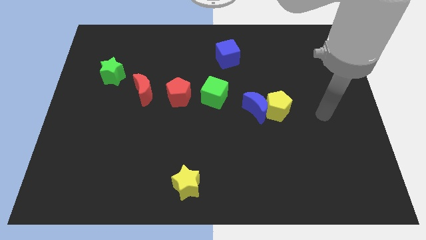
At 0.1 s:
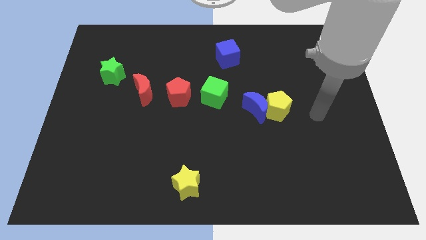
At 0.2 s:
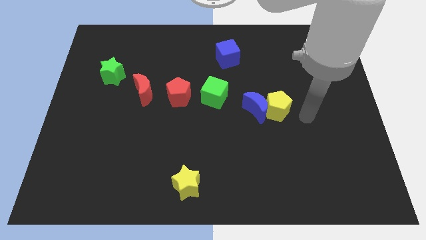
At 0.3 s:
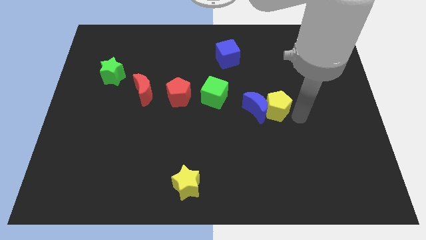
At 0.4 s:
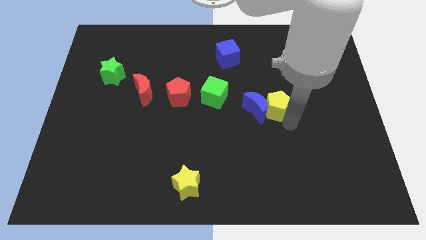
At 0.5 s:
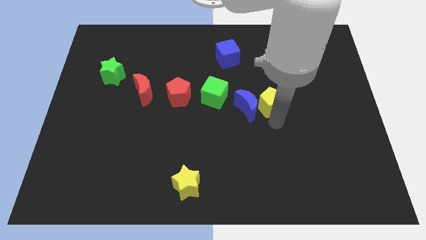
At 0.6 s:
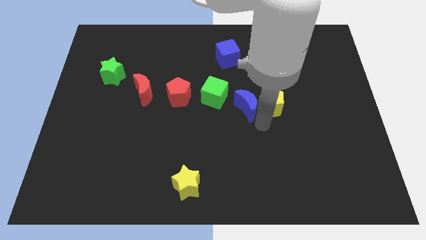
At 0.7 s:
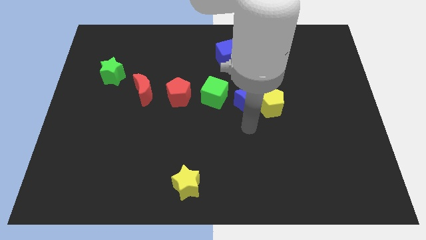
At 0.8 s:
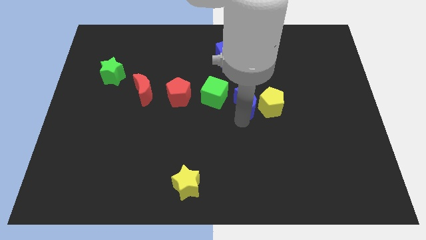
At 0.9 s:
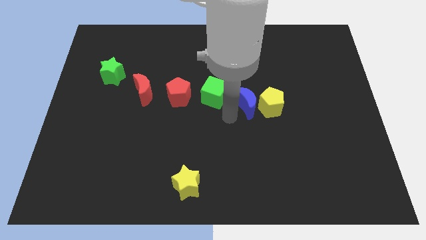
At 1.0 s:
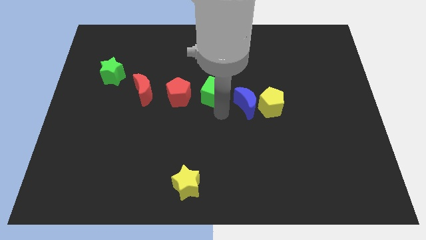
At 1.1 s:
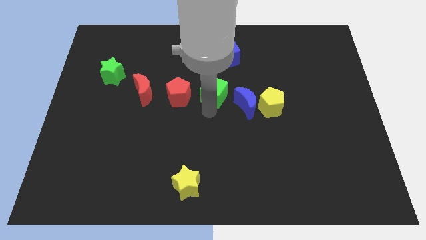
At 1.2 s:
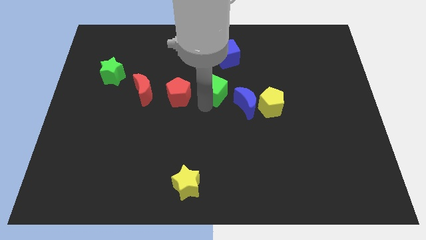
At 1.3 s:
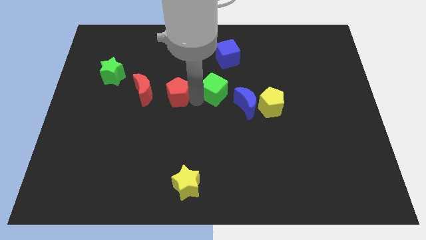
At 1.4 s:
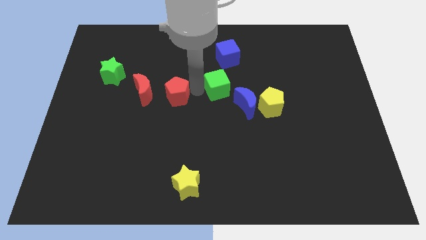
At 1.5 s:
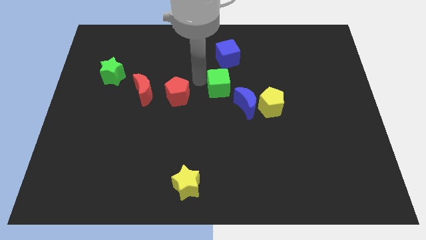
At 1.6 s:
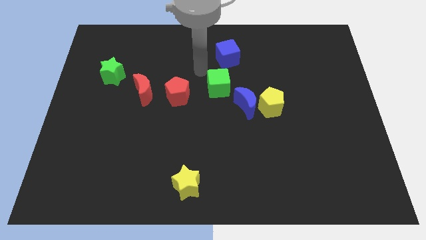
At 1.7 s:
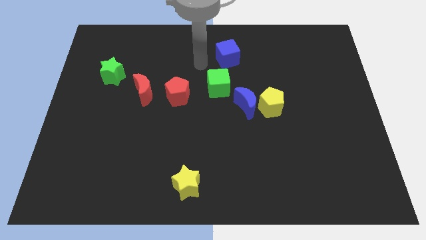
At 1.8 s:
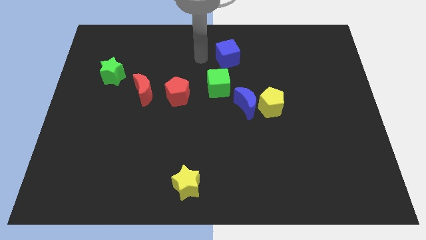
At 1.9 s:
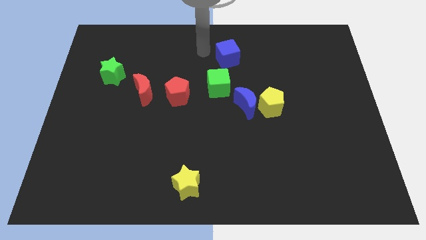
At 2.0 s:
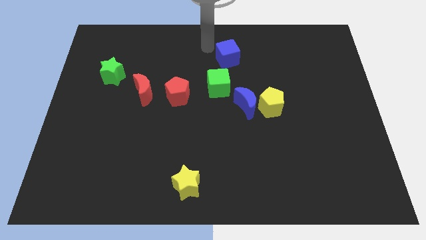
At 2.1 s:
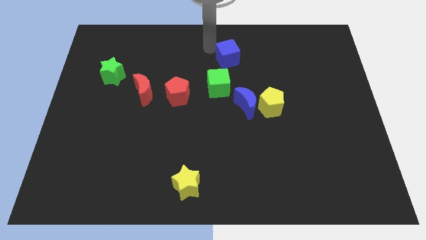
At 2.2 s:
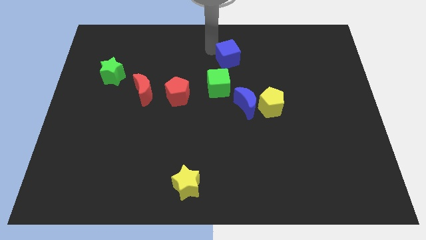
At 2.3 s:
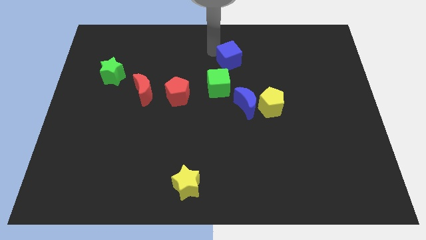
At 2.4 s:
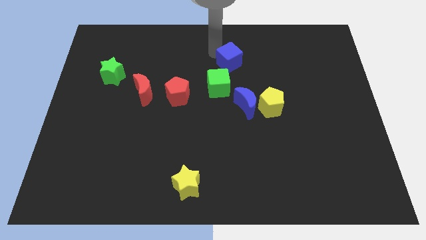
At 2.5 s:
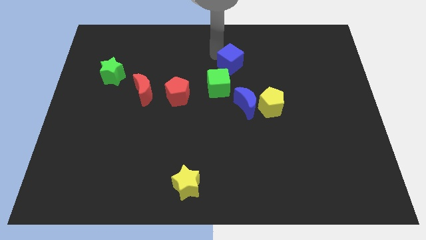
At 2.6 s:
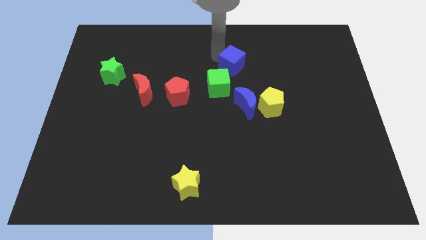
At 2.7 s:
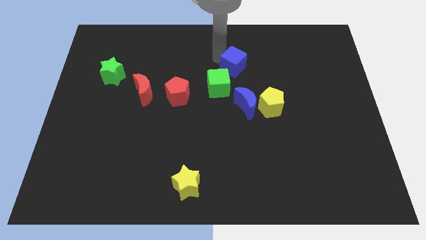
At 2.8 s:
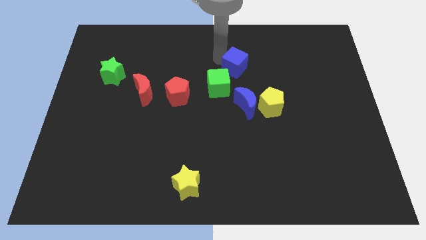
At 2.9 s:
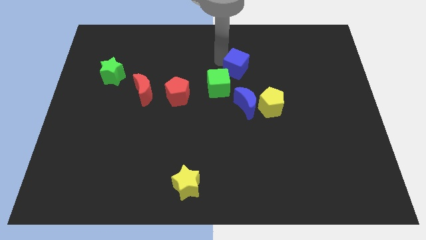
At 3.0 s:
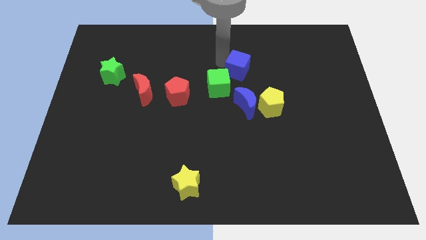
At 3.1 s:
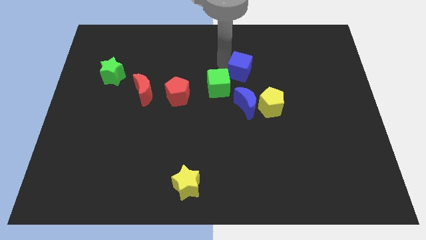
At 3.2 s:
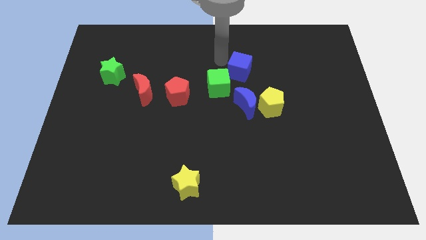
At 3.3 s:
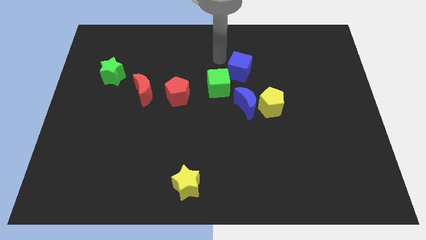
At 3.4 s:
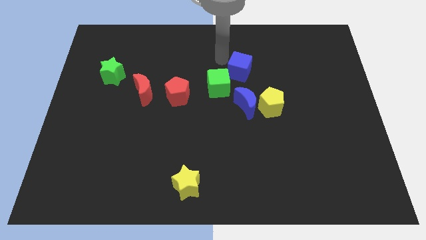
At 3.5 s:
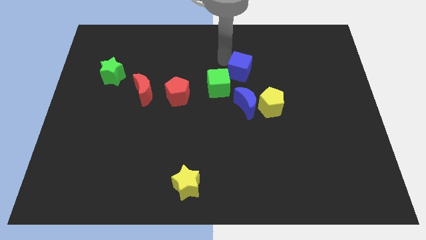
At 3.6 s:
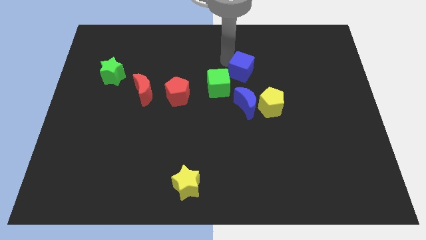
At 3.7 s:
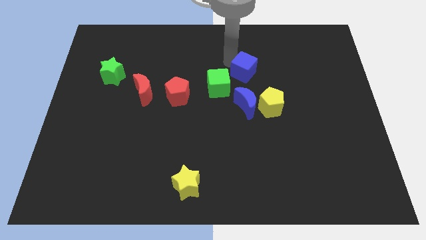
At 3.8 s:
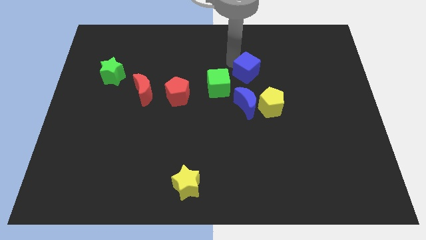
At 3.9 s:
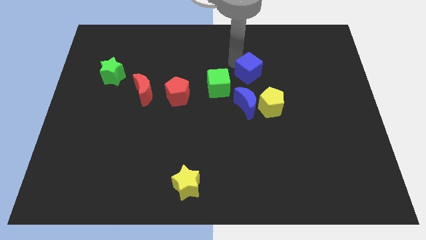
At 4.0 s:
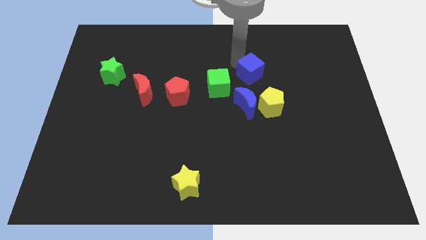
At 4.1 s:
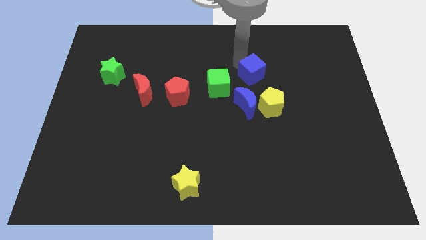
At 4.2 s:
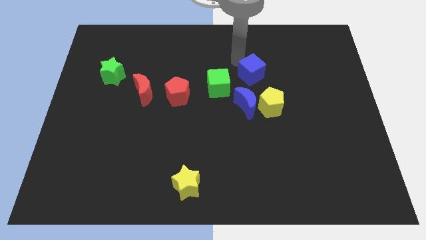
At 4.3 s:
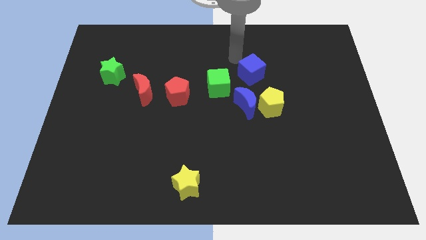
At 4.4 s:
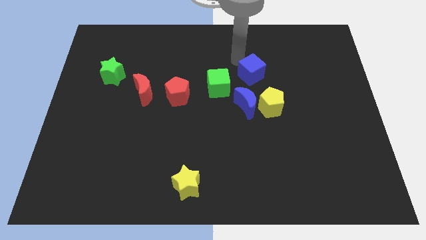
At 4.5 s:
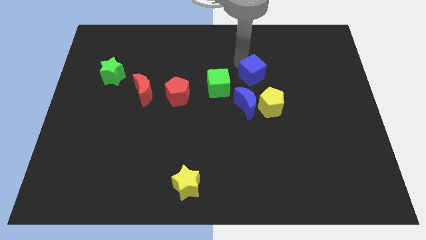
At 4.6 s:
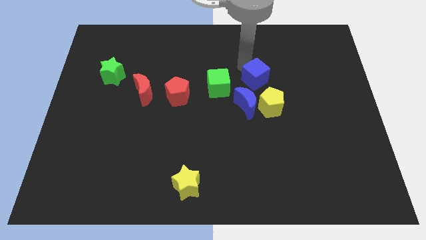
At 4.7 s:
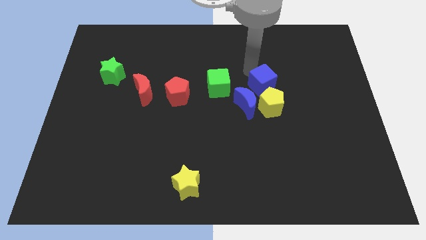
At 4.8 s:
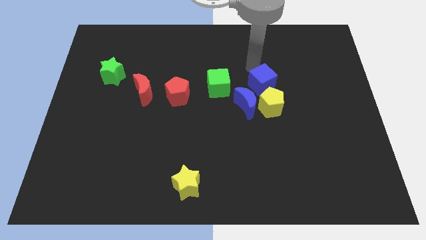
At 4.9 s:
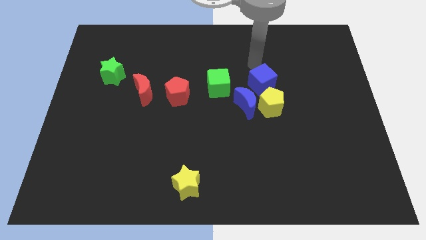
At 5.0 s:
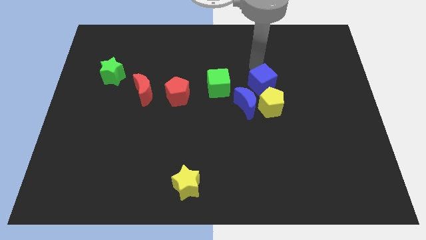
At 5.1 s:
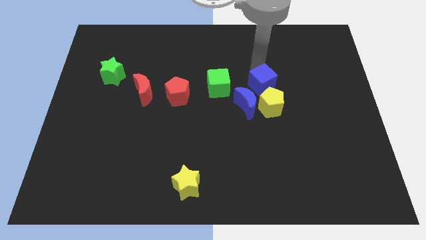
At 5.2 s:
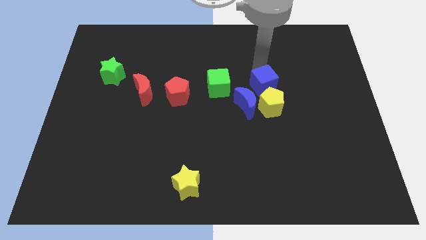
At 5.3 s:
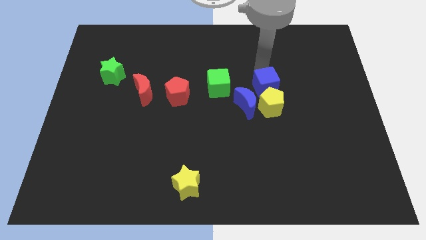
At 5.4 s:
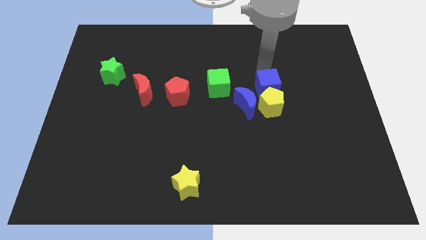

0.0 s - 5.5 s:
move the blue cube close to the yellow pentagon

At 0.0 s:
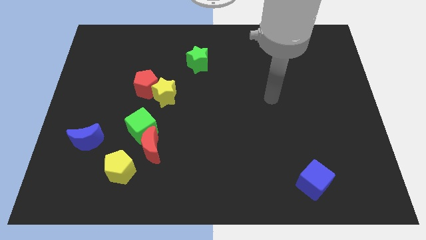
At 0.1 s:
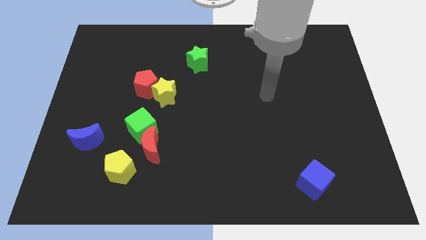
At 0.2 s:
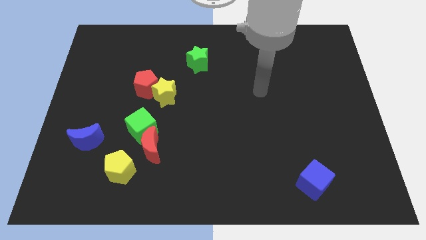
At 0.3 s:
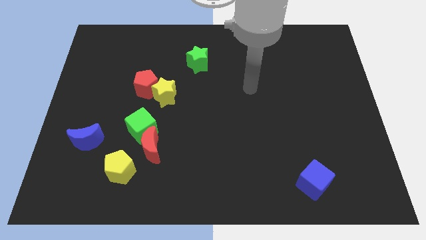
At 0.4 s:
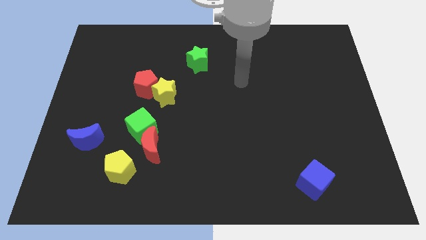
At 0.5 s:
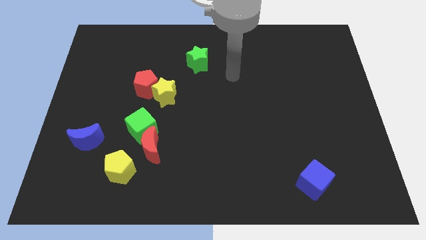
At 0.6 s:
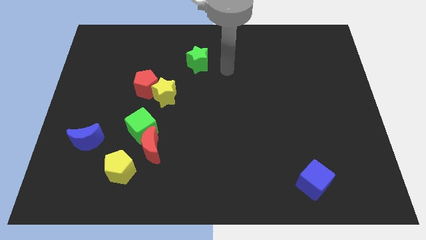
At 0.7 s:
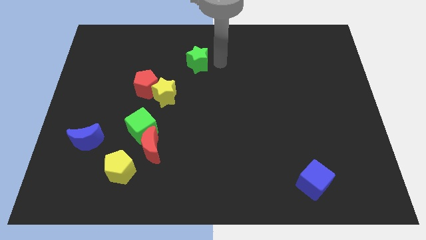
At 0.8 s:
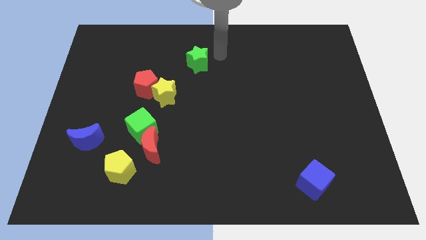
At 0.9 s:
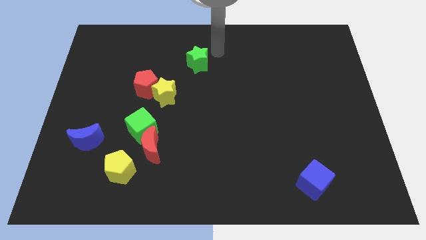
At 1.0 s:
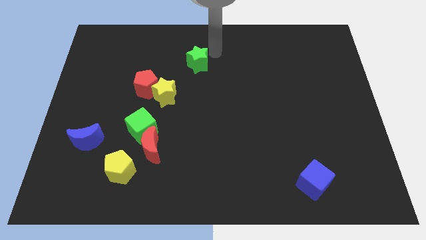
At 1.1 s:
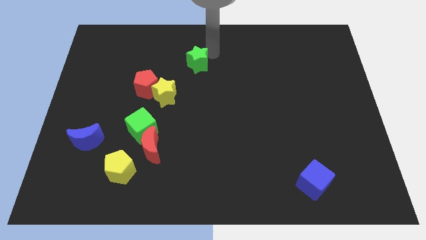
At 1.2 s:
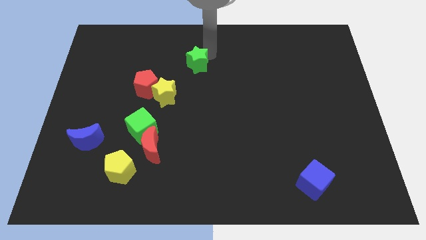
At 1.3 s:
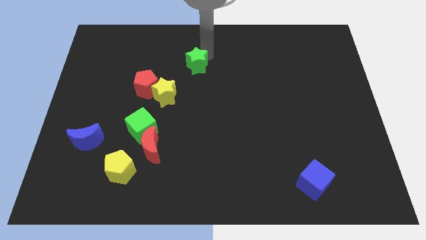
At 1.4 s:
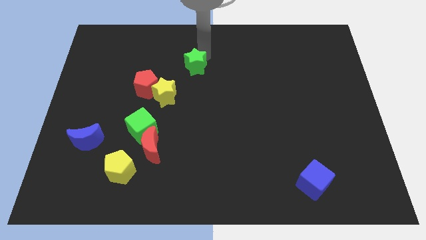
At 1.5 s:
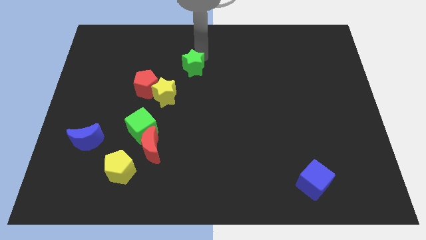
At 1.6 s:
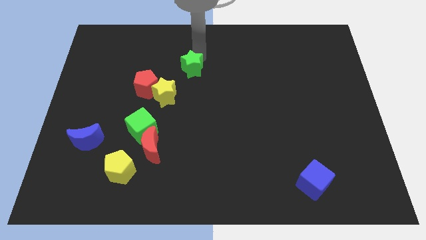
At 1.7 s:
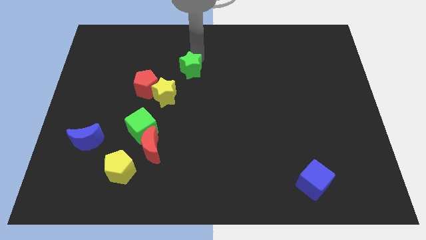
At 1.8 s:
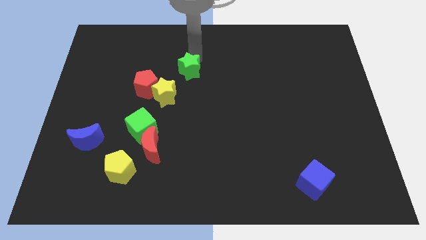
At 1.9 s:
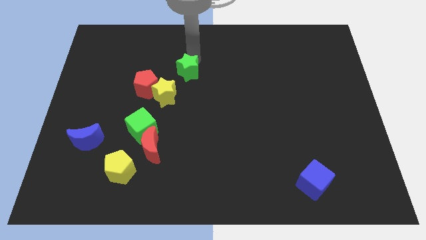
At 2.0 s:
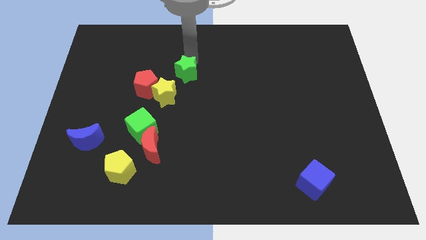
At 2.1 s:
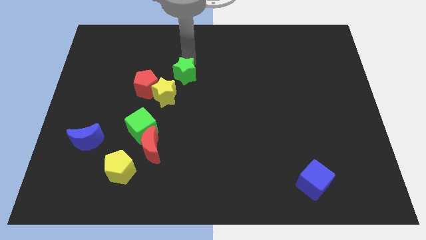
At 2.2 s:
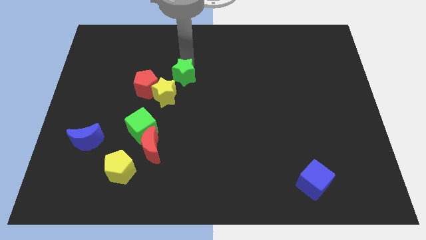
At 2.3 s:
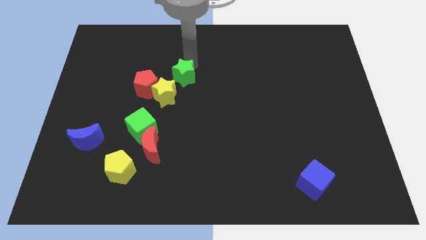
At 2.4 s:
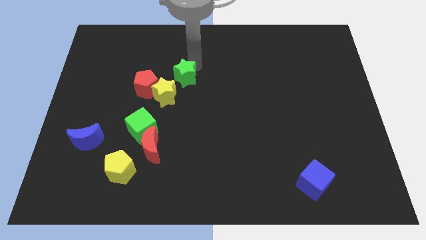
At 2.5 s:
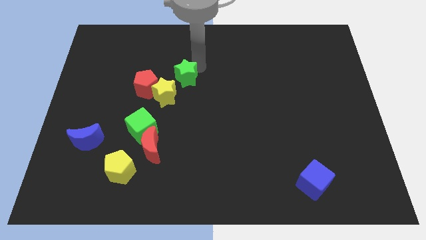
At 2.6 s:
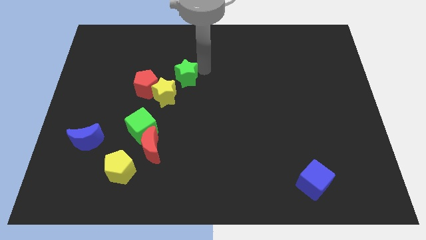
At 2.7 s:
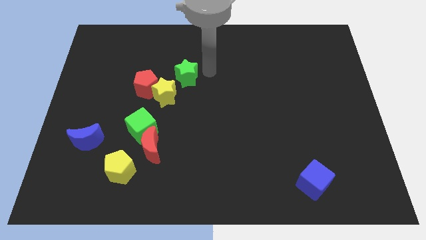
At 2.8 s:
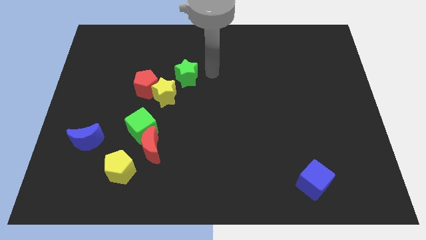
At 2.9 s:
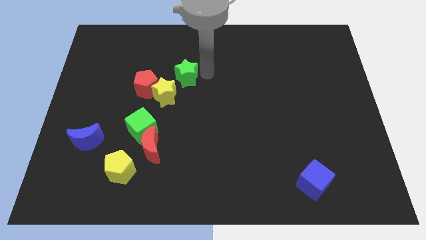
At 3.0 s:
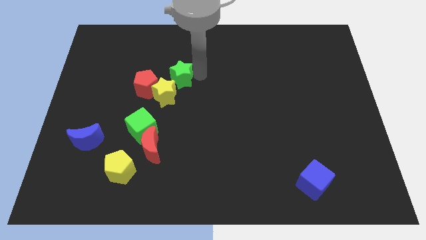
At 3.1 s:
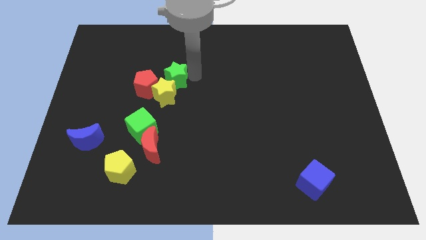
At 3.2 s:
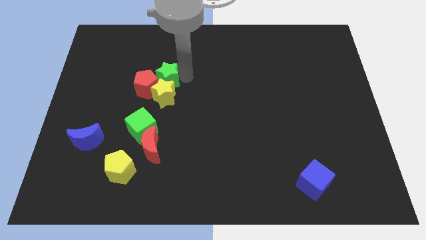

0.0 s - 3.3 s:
move the green star next to the red pentagon
